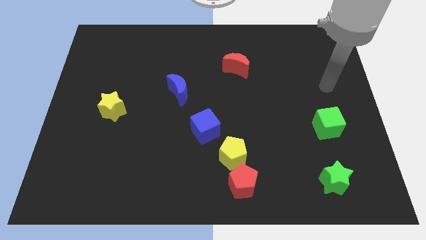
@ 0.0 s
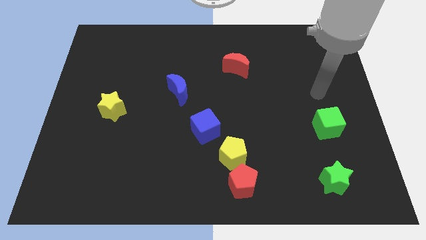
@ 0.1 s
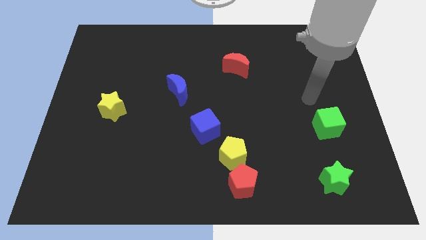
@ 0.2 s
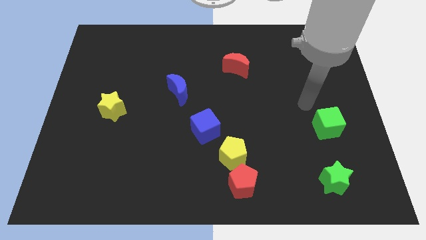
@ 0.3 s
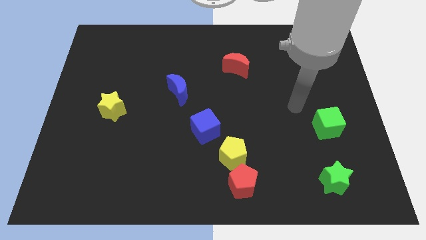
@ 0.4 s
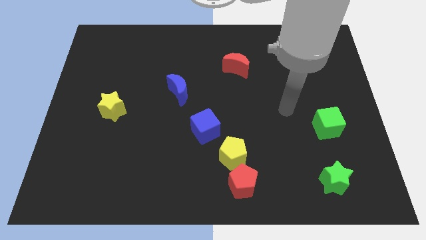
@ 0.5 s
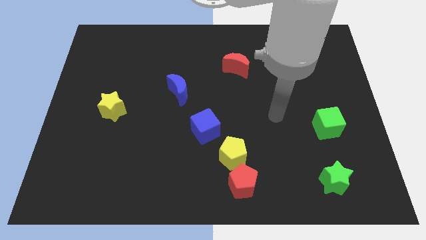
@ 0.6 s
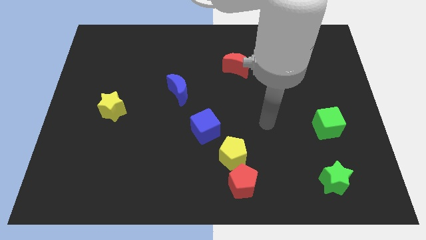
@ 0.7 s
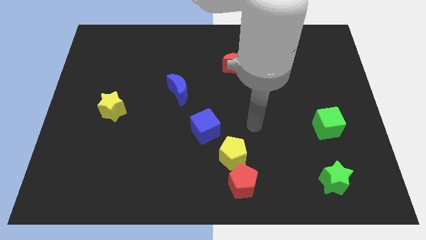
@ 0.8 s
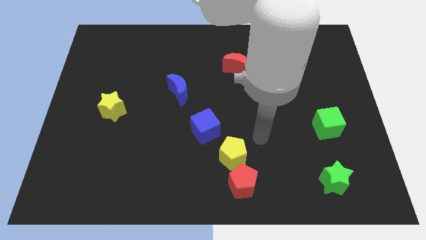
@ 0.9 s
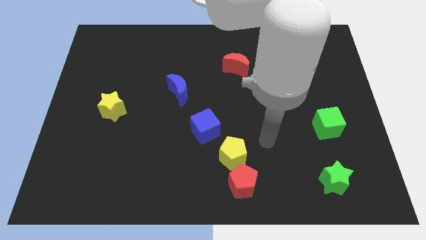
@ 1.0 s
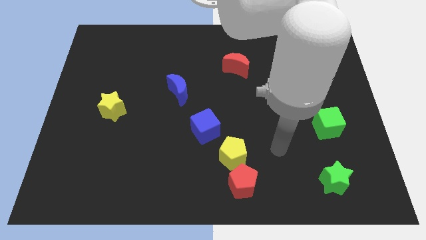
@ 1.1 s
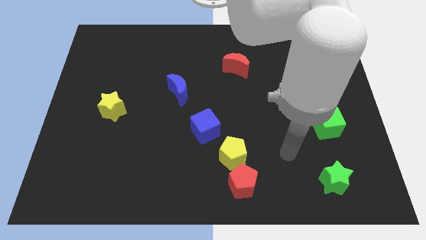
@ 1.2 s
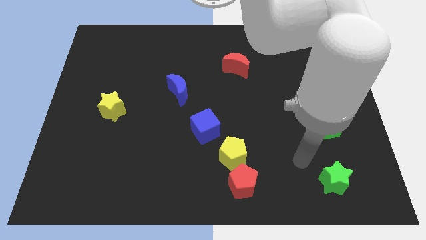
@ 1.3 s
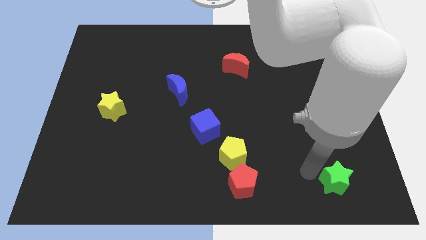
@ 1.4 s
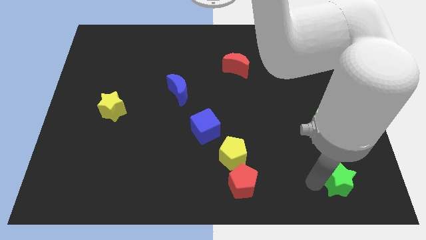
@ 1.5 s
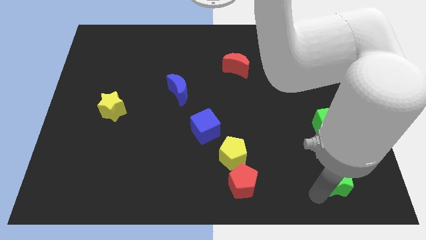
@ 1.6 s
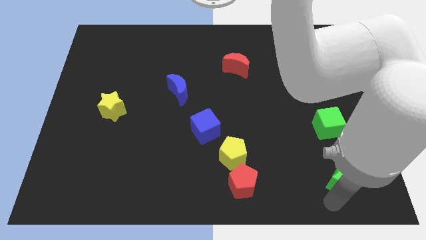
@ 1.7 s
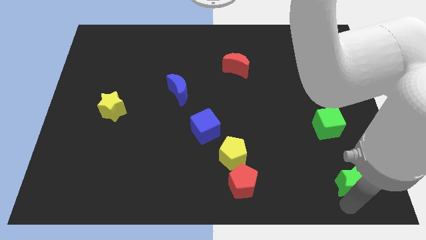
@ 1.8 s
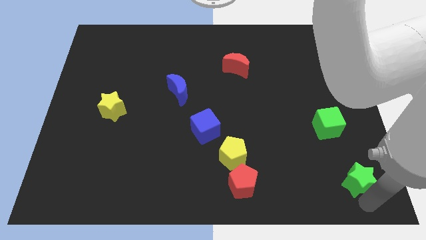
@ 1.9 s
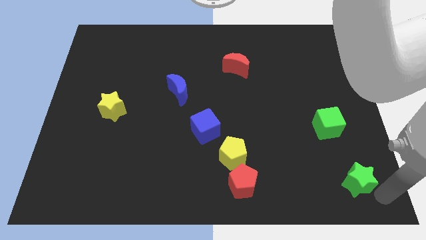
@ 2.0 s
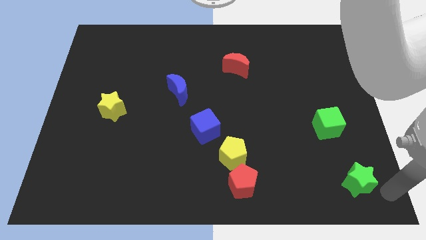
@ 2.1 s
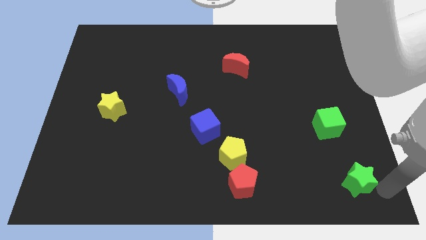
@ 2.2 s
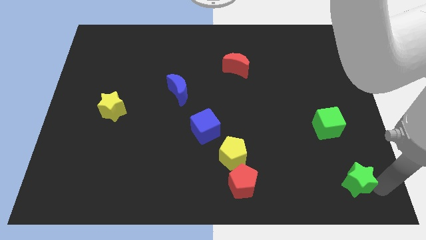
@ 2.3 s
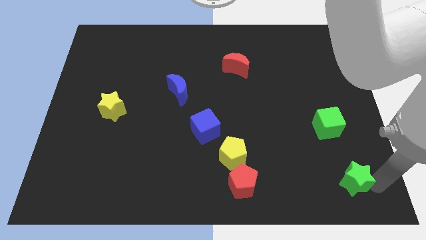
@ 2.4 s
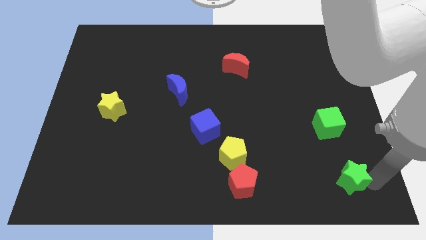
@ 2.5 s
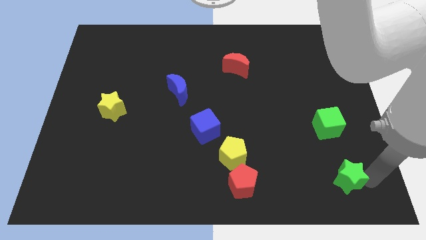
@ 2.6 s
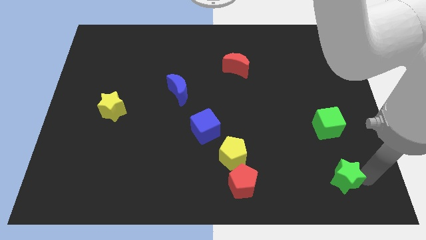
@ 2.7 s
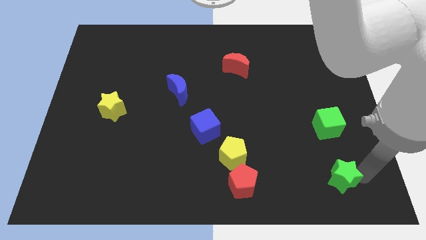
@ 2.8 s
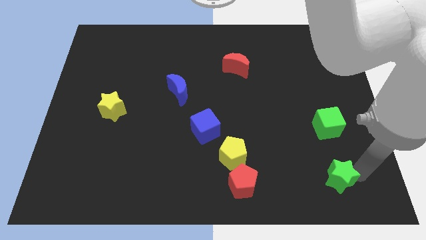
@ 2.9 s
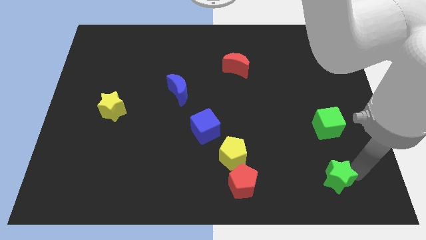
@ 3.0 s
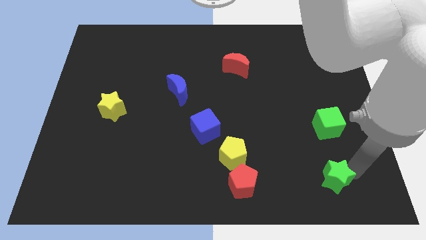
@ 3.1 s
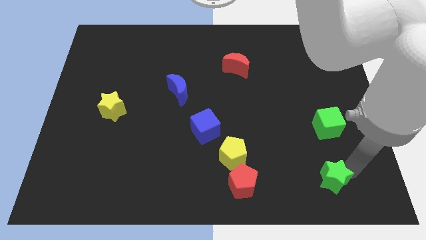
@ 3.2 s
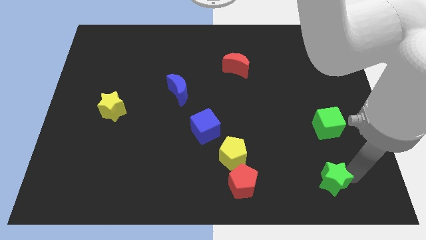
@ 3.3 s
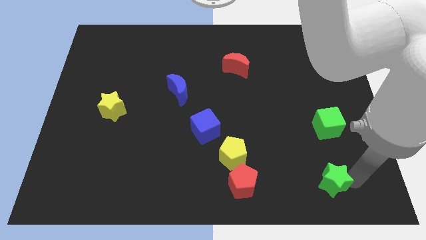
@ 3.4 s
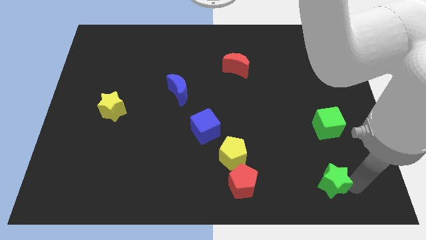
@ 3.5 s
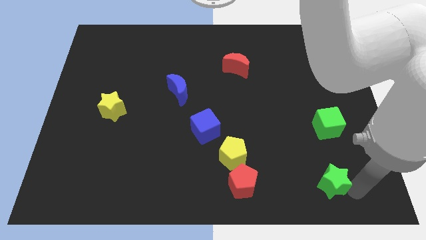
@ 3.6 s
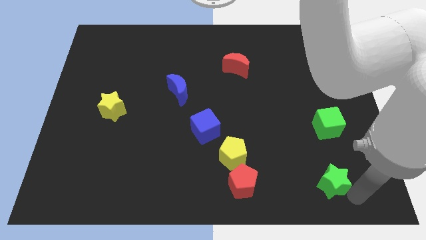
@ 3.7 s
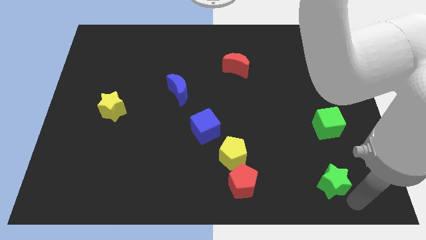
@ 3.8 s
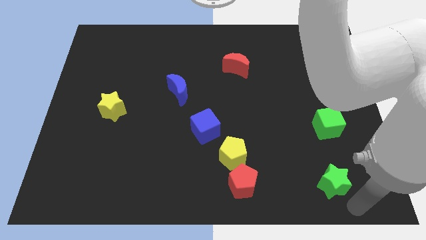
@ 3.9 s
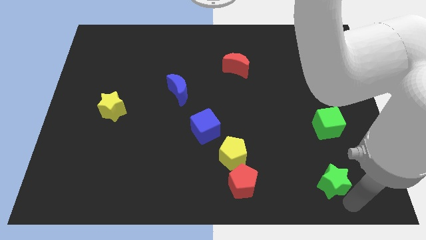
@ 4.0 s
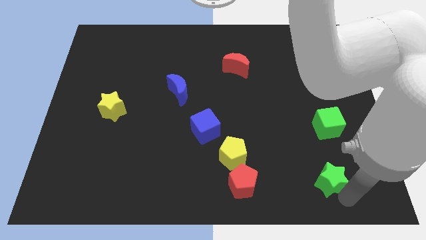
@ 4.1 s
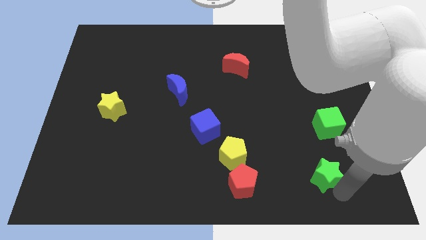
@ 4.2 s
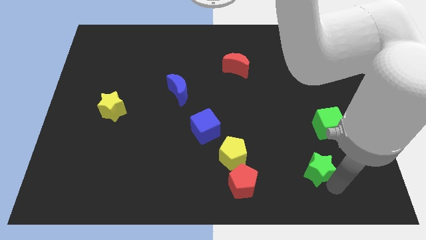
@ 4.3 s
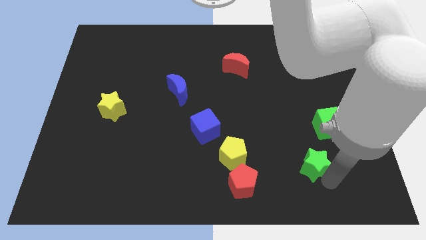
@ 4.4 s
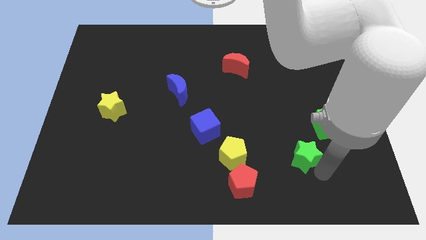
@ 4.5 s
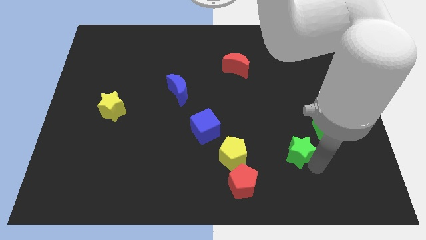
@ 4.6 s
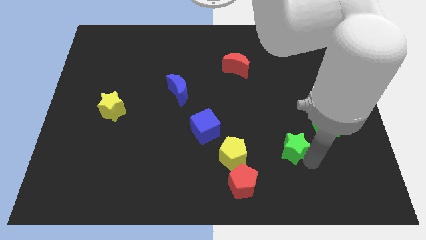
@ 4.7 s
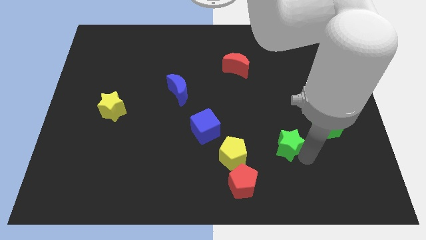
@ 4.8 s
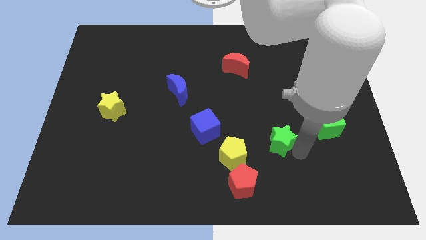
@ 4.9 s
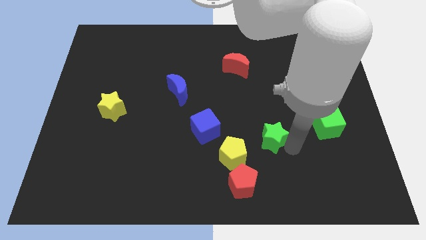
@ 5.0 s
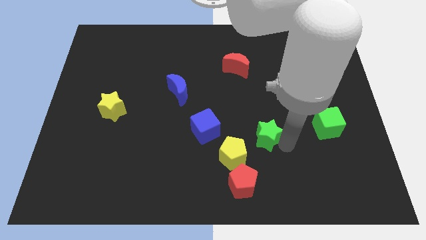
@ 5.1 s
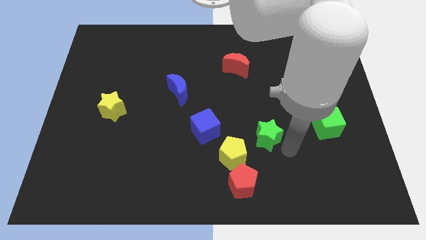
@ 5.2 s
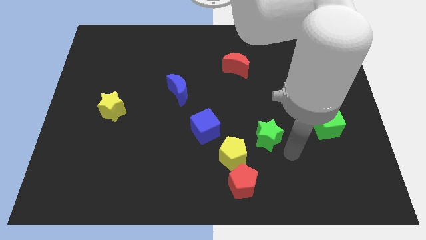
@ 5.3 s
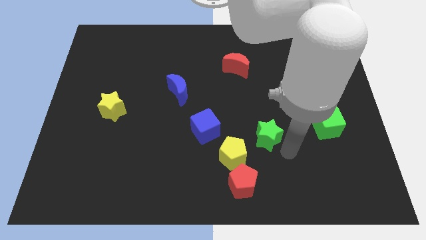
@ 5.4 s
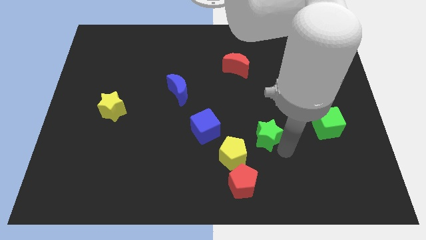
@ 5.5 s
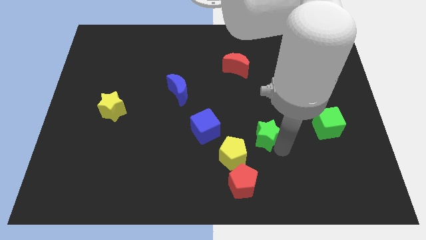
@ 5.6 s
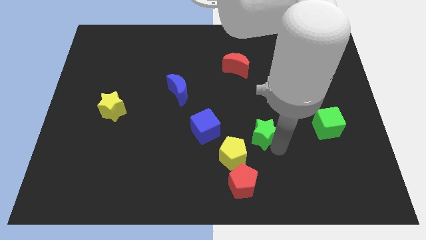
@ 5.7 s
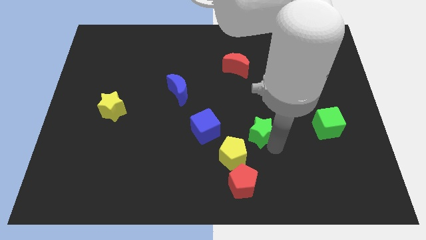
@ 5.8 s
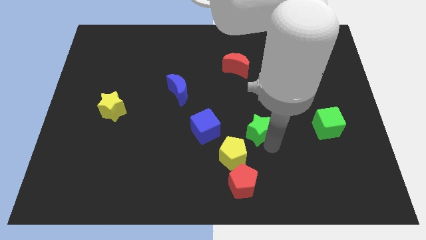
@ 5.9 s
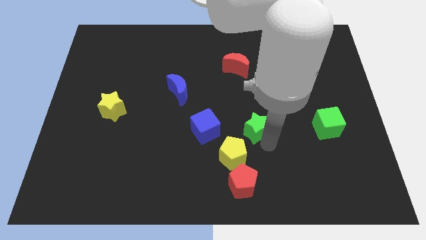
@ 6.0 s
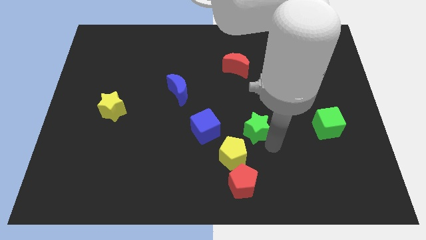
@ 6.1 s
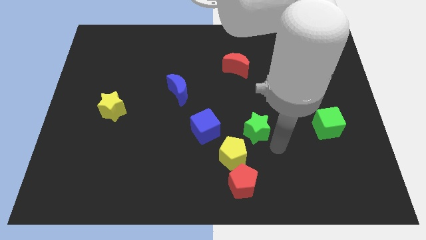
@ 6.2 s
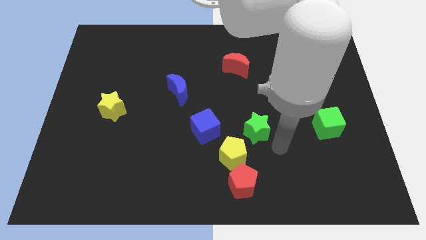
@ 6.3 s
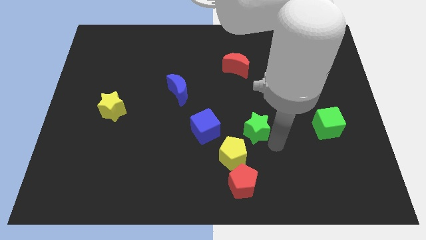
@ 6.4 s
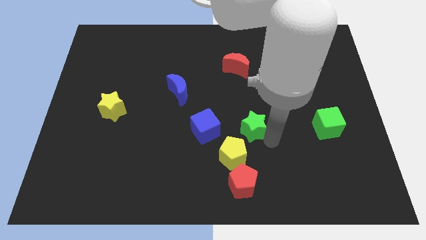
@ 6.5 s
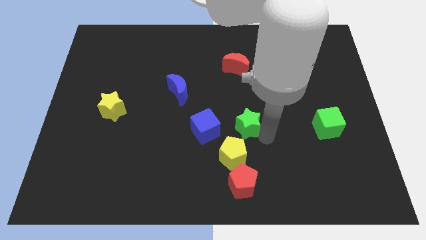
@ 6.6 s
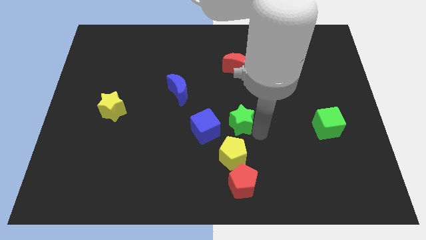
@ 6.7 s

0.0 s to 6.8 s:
move the green star to the top right side of the blue cube
